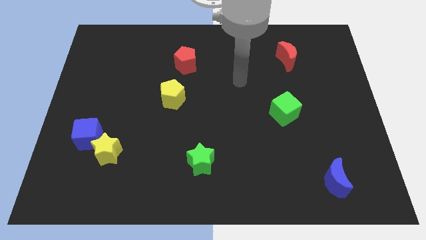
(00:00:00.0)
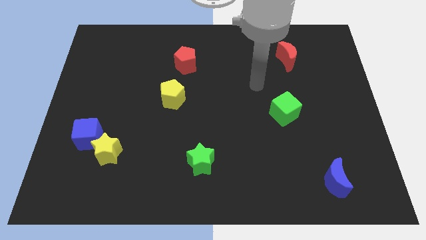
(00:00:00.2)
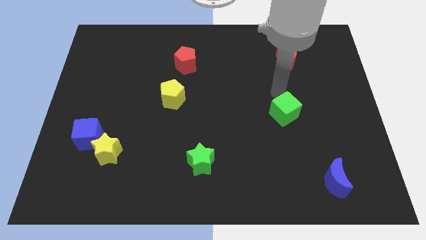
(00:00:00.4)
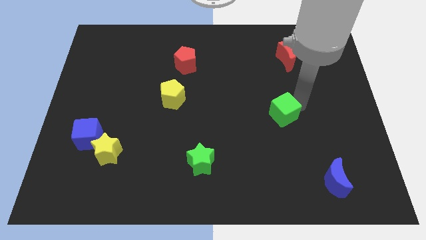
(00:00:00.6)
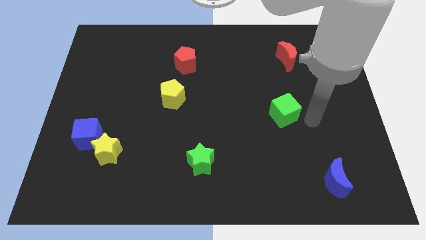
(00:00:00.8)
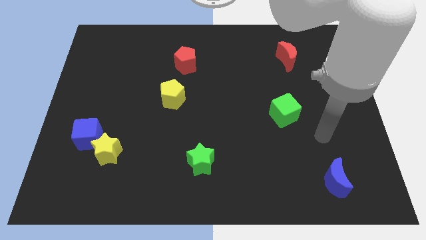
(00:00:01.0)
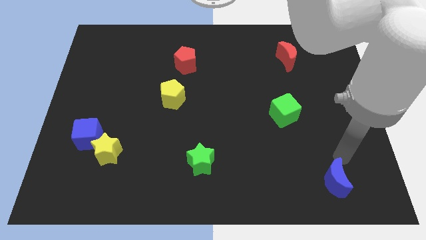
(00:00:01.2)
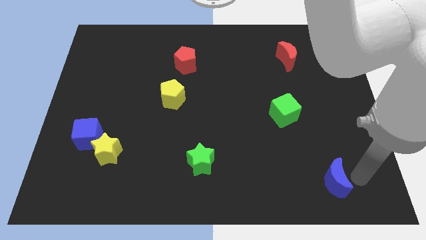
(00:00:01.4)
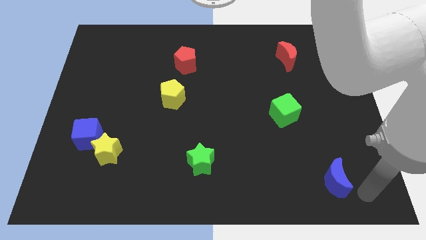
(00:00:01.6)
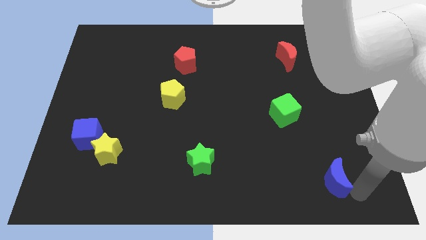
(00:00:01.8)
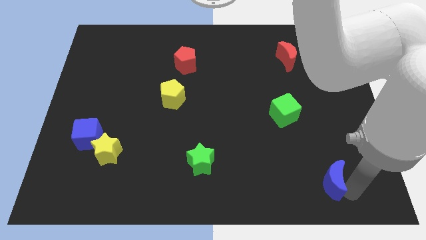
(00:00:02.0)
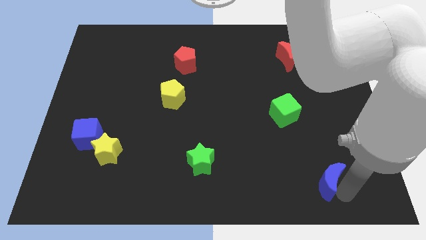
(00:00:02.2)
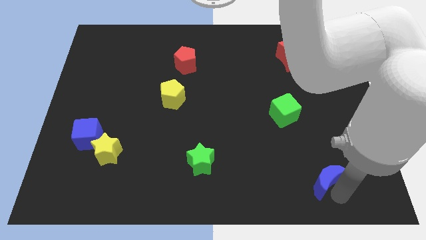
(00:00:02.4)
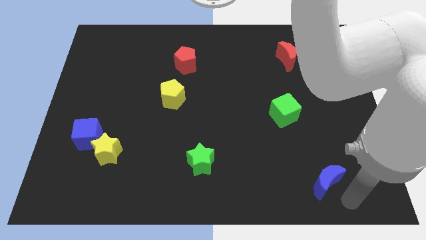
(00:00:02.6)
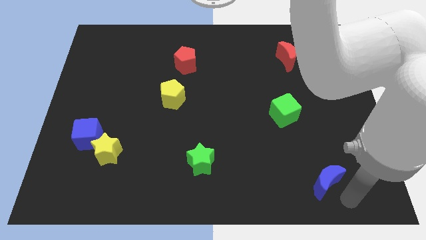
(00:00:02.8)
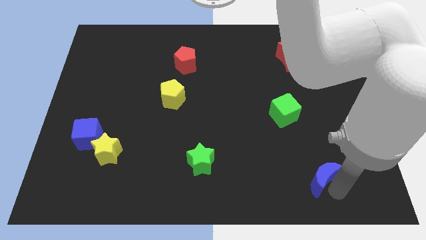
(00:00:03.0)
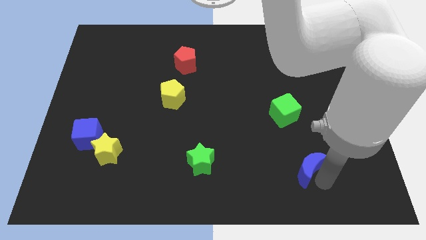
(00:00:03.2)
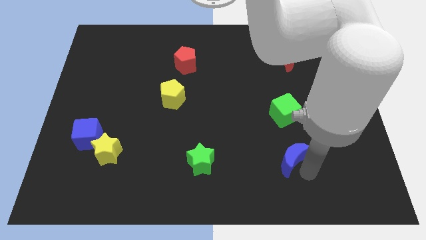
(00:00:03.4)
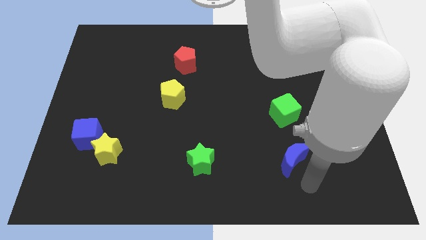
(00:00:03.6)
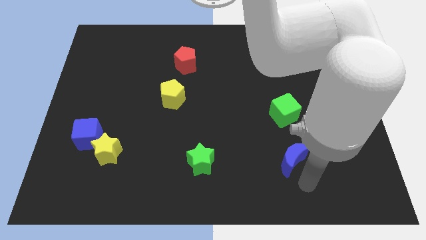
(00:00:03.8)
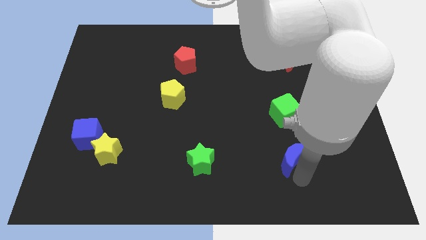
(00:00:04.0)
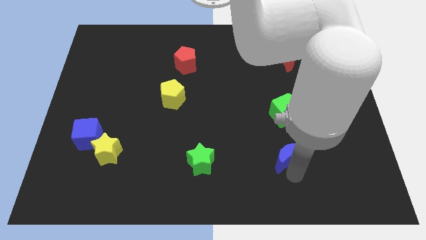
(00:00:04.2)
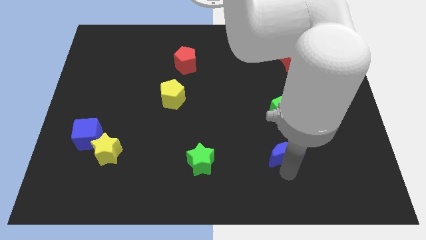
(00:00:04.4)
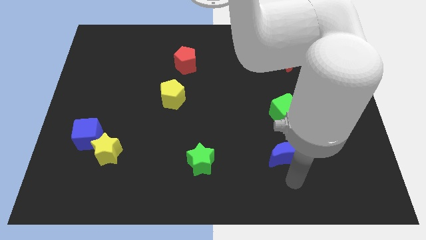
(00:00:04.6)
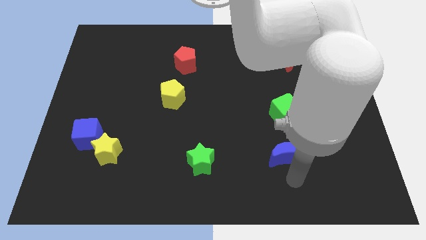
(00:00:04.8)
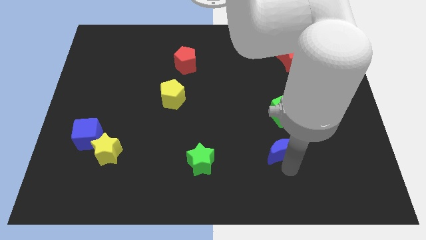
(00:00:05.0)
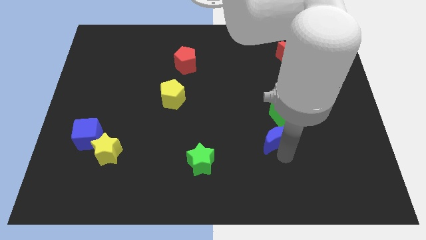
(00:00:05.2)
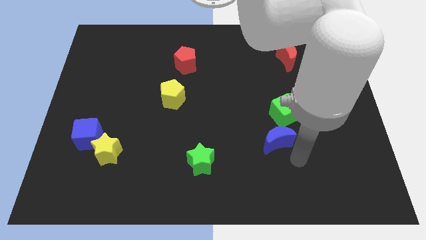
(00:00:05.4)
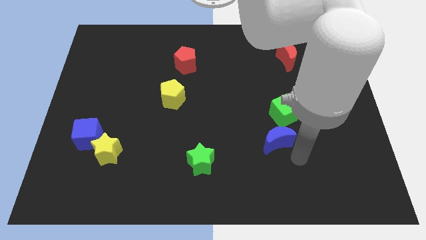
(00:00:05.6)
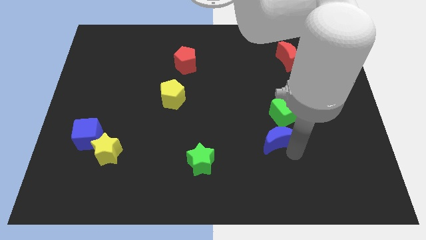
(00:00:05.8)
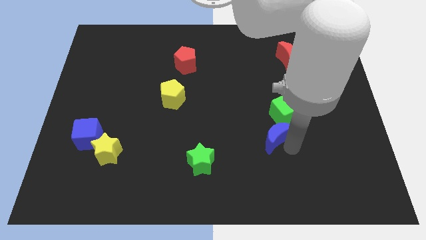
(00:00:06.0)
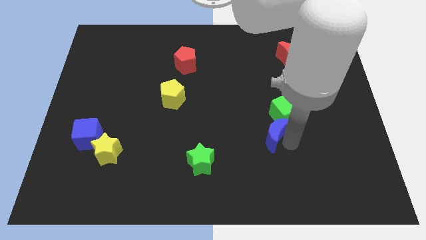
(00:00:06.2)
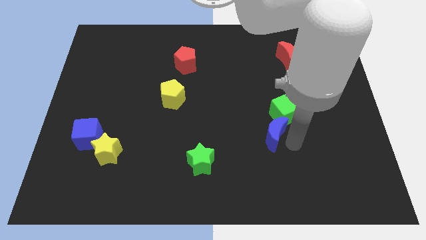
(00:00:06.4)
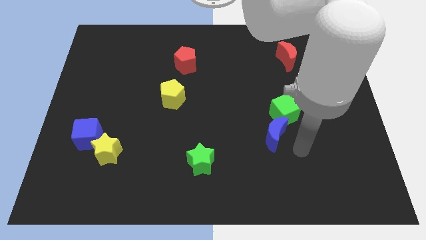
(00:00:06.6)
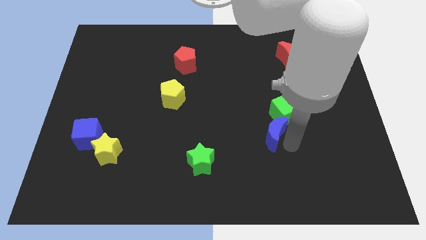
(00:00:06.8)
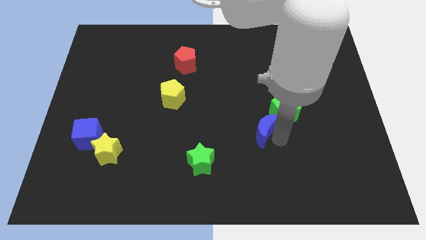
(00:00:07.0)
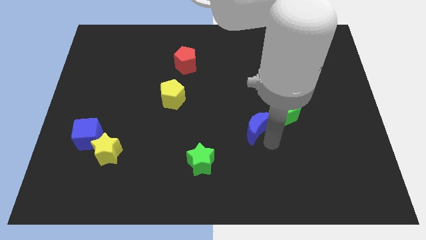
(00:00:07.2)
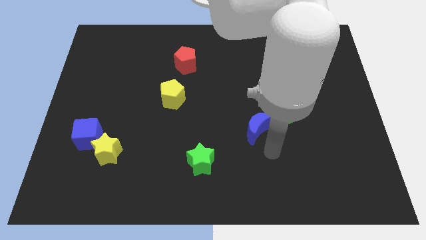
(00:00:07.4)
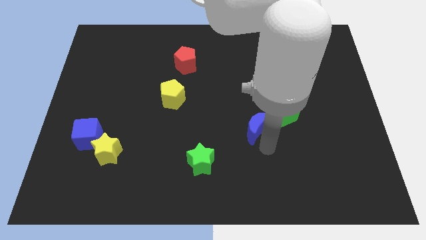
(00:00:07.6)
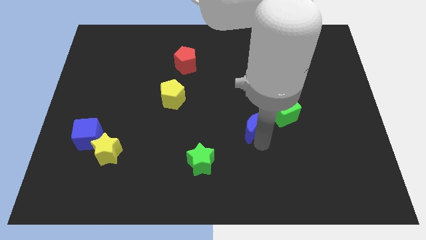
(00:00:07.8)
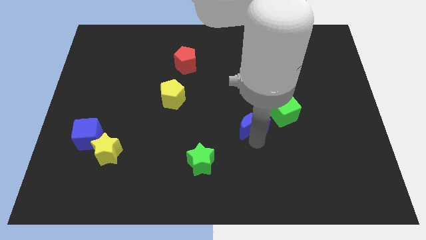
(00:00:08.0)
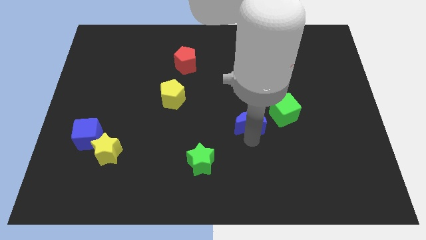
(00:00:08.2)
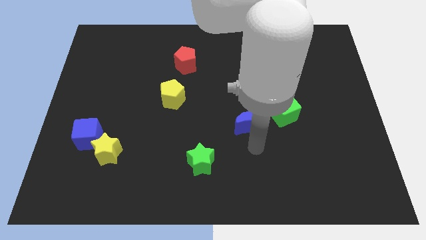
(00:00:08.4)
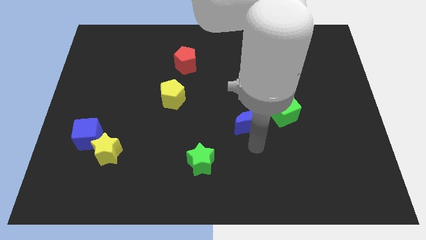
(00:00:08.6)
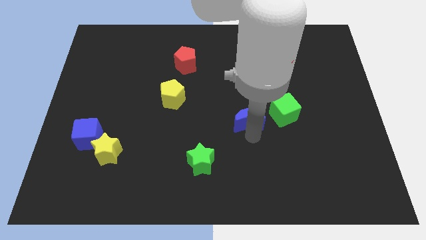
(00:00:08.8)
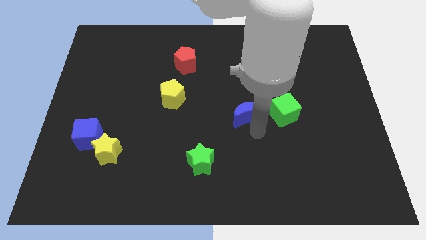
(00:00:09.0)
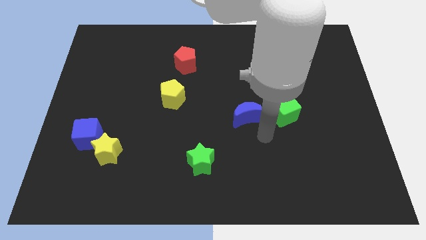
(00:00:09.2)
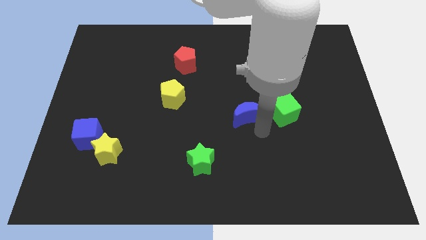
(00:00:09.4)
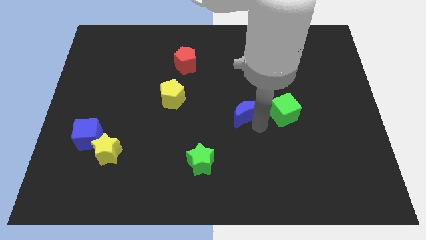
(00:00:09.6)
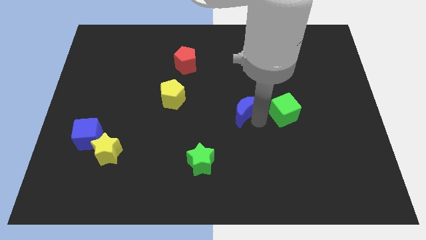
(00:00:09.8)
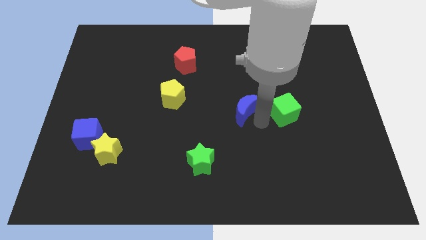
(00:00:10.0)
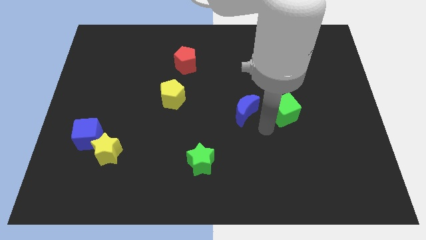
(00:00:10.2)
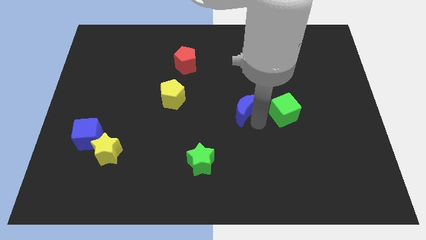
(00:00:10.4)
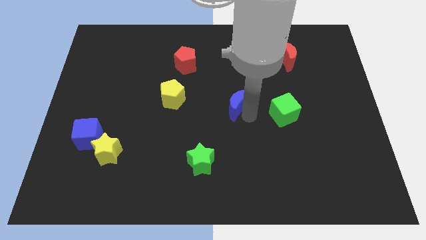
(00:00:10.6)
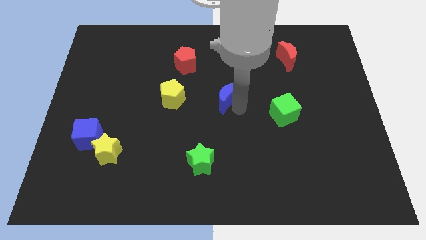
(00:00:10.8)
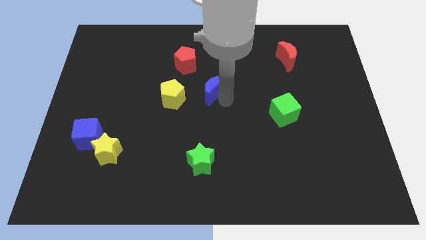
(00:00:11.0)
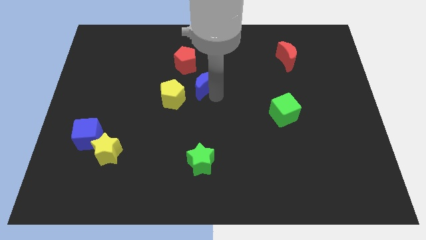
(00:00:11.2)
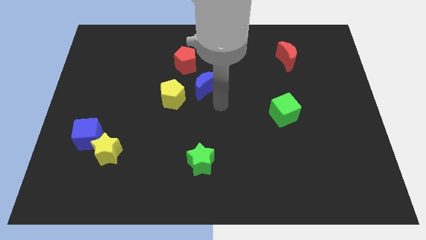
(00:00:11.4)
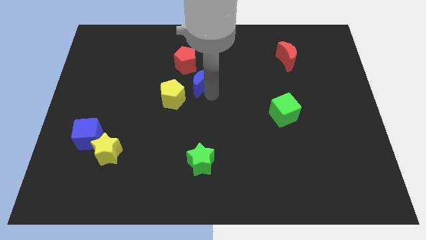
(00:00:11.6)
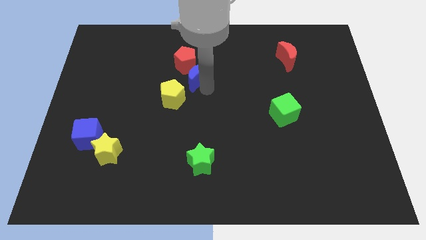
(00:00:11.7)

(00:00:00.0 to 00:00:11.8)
move the blue moon towards the red pentagon

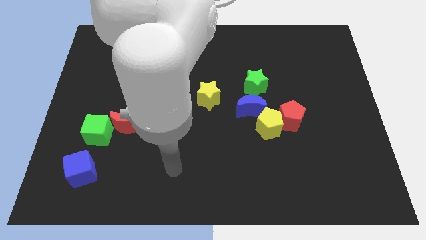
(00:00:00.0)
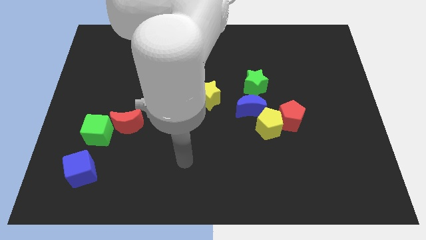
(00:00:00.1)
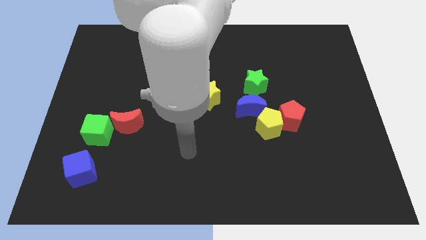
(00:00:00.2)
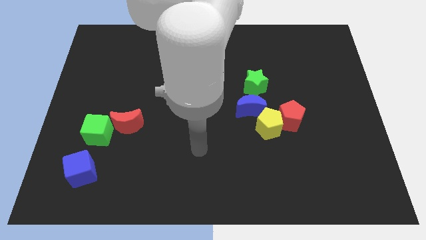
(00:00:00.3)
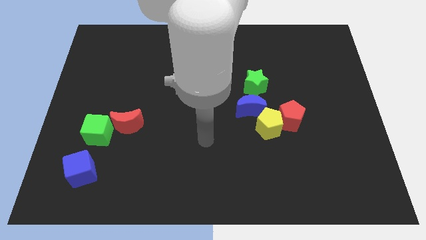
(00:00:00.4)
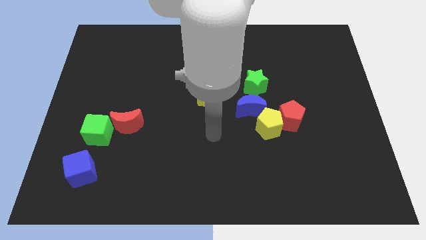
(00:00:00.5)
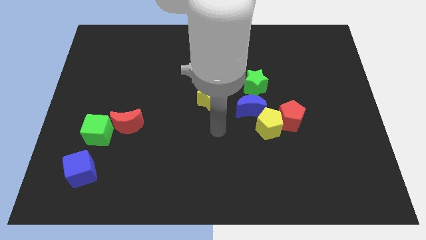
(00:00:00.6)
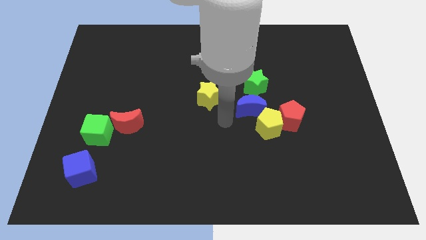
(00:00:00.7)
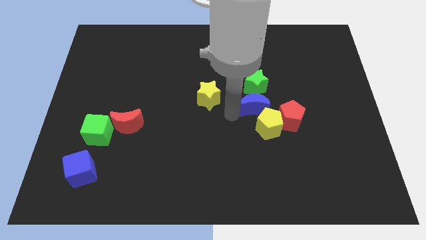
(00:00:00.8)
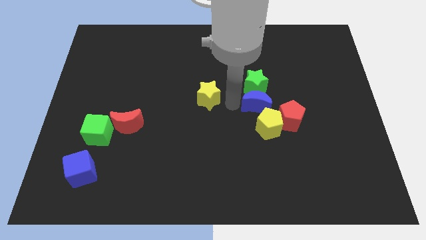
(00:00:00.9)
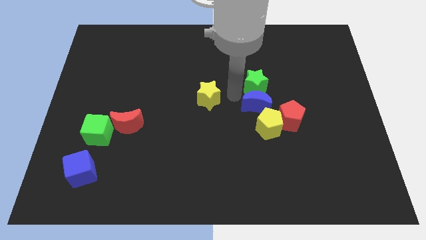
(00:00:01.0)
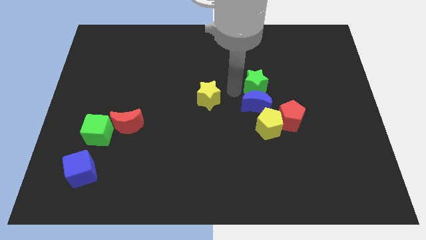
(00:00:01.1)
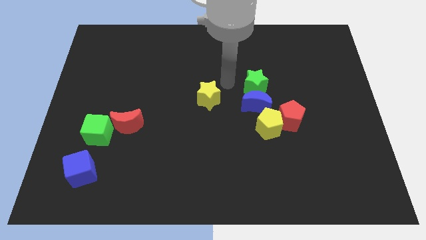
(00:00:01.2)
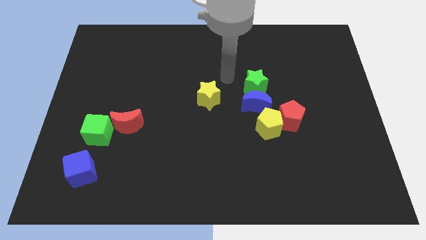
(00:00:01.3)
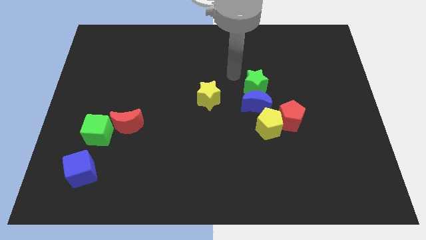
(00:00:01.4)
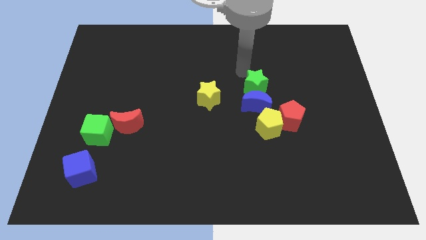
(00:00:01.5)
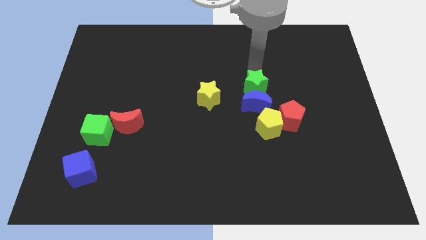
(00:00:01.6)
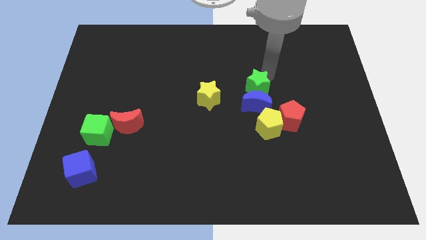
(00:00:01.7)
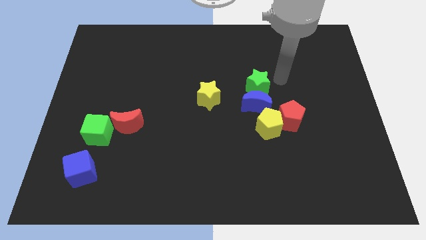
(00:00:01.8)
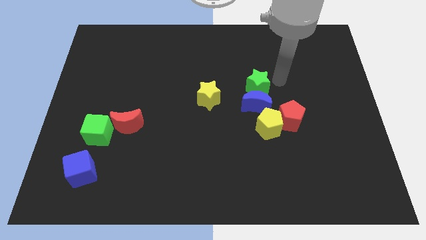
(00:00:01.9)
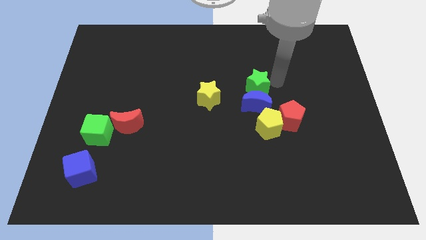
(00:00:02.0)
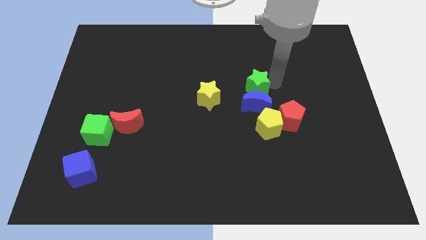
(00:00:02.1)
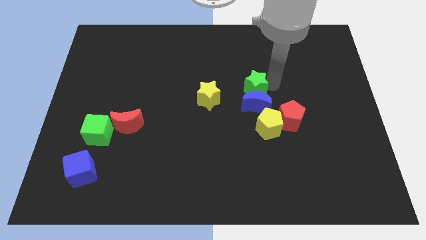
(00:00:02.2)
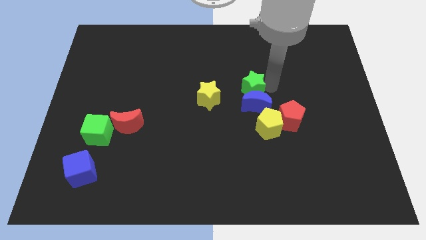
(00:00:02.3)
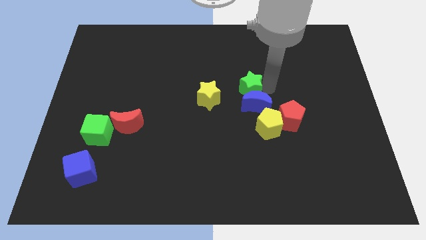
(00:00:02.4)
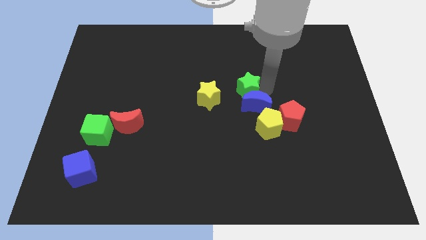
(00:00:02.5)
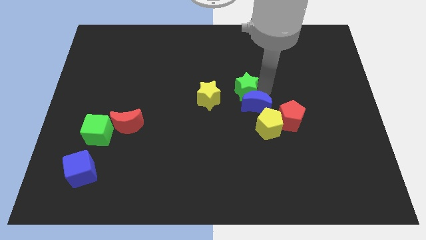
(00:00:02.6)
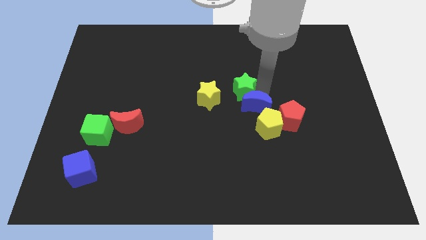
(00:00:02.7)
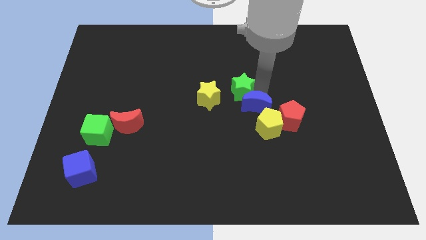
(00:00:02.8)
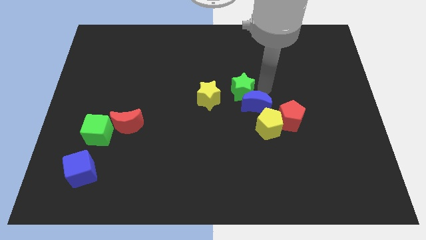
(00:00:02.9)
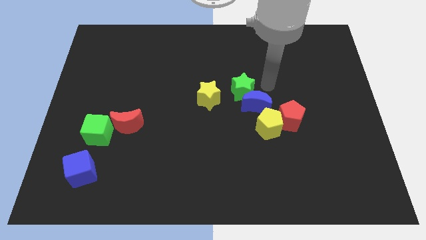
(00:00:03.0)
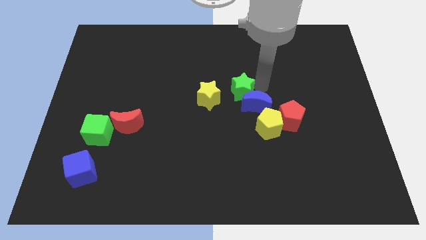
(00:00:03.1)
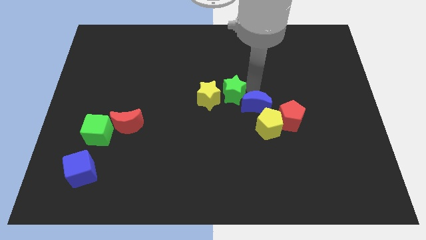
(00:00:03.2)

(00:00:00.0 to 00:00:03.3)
push the green star close to the yellow star
